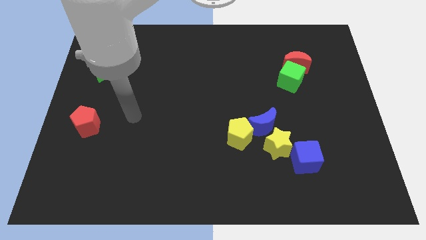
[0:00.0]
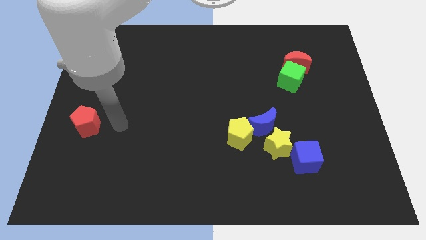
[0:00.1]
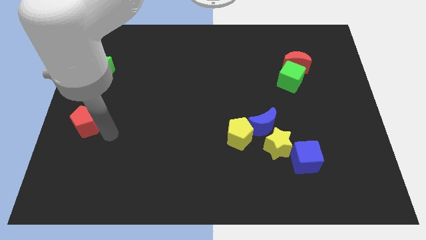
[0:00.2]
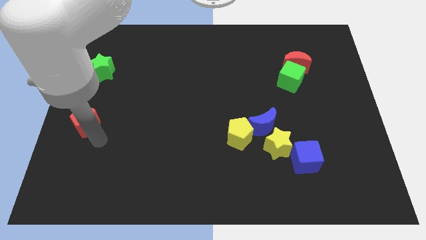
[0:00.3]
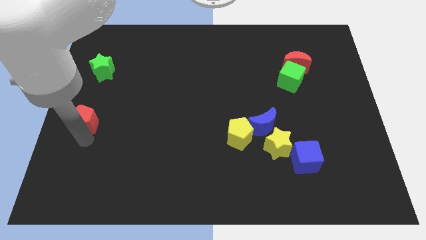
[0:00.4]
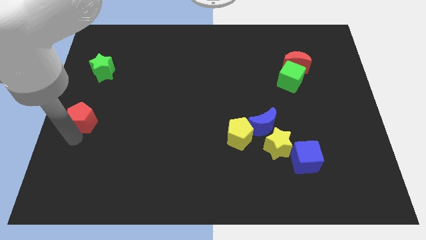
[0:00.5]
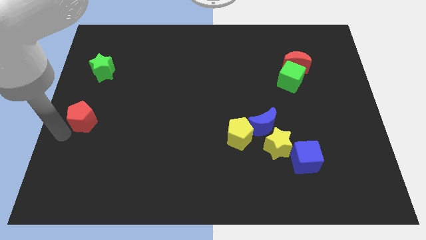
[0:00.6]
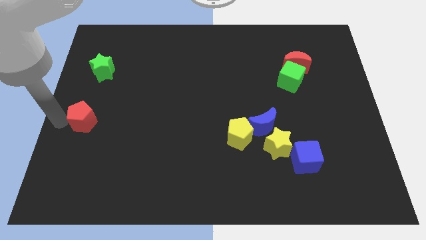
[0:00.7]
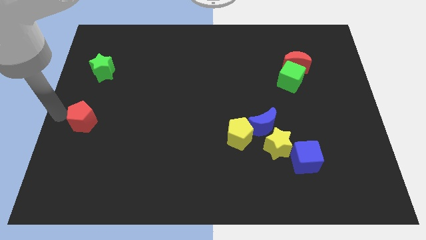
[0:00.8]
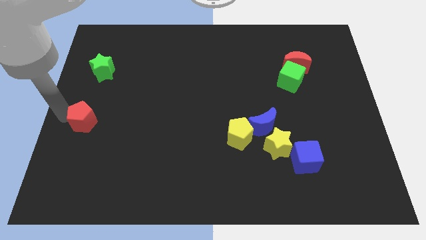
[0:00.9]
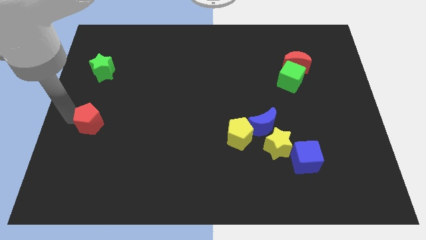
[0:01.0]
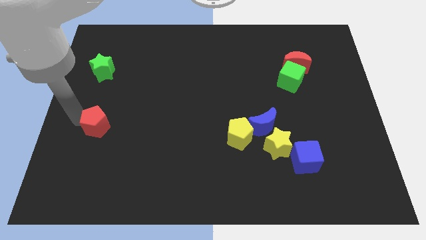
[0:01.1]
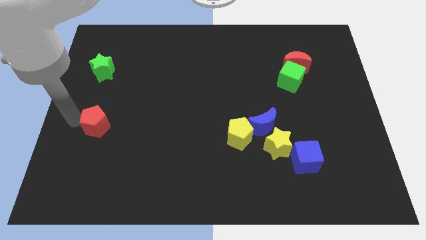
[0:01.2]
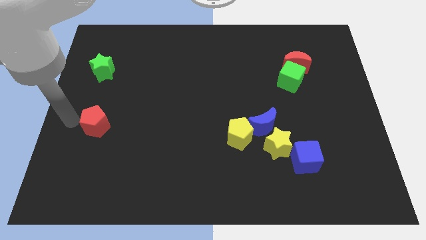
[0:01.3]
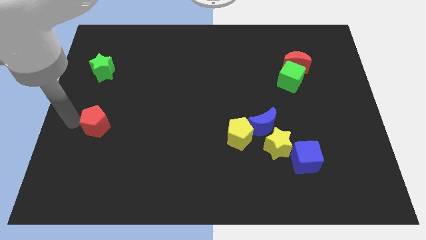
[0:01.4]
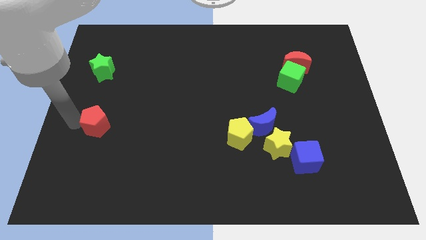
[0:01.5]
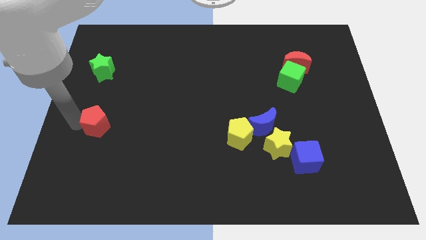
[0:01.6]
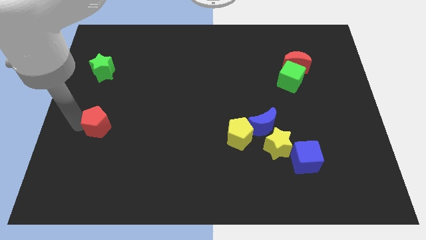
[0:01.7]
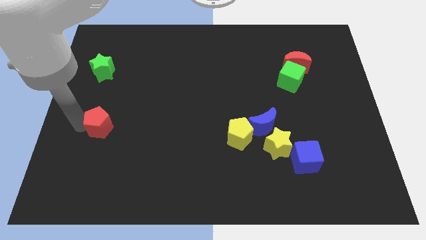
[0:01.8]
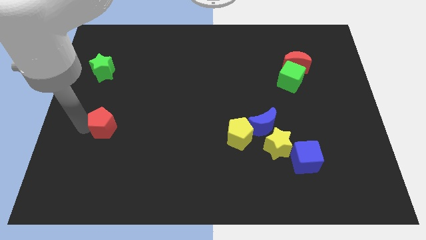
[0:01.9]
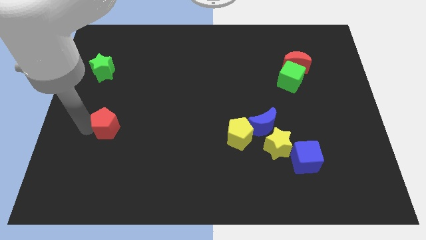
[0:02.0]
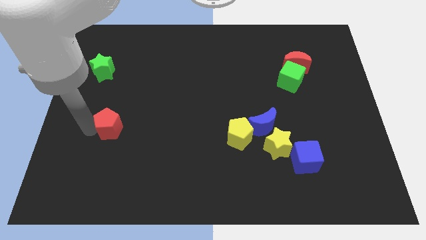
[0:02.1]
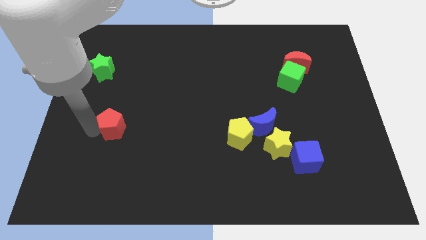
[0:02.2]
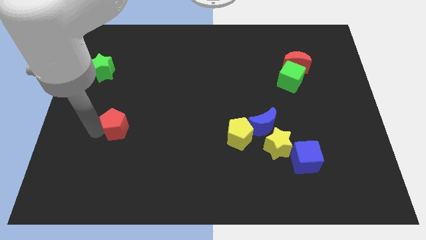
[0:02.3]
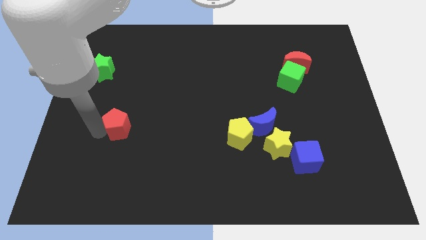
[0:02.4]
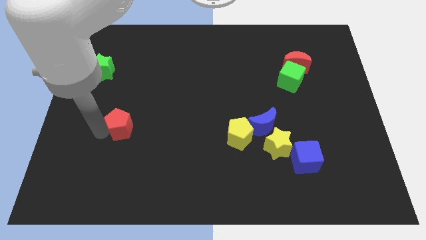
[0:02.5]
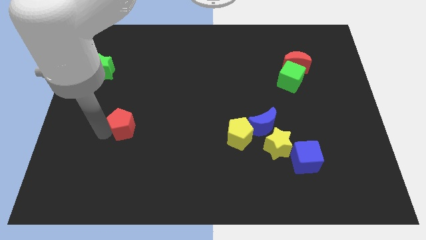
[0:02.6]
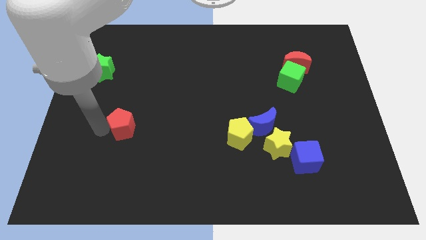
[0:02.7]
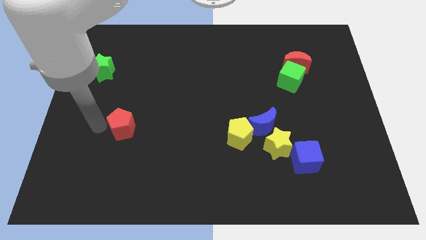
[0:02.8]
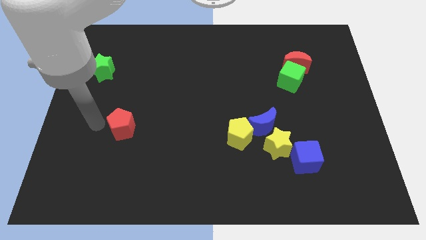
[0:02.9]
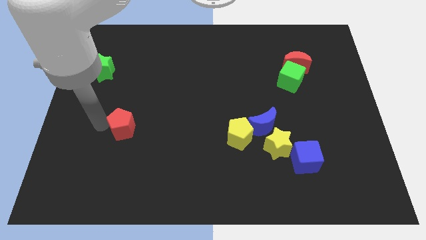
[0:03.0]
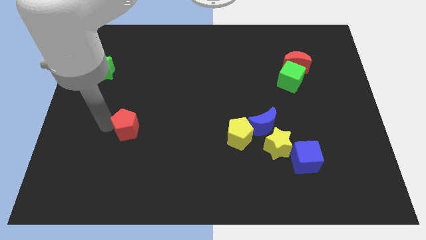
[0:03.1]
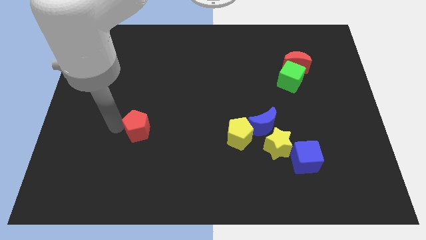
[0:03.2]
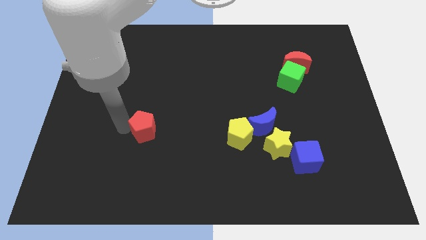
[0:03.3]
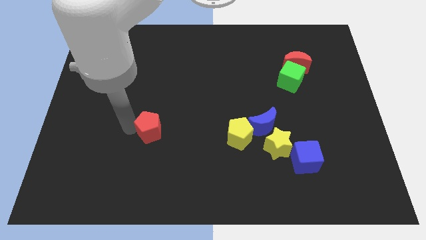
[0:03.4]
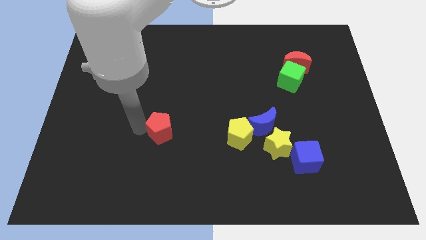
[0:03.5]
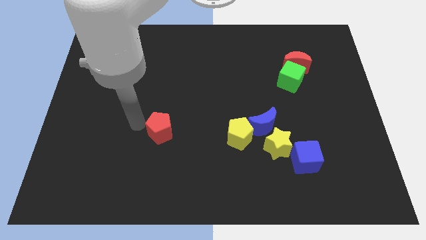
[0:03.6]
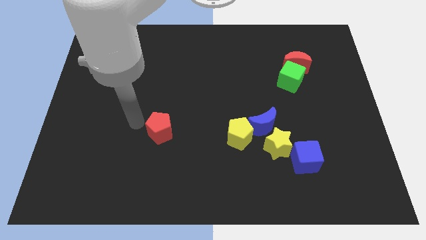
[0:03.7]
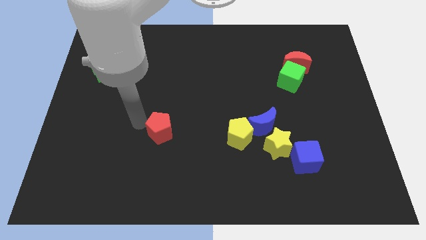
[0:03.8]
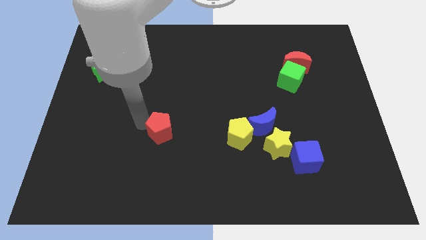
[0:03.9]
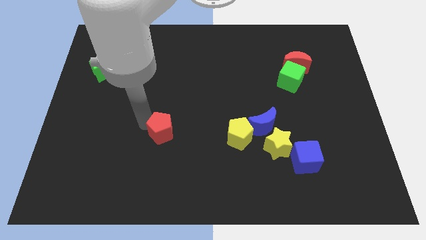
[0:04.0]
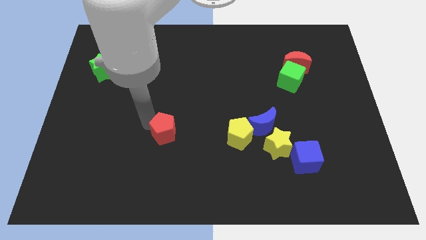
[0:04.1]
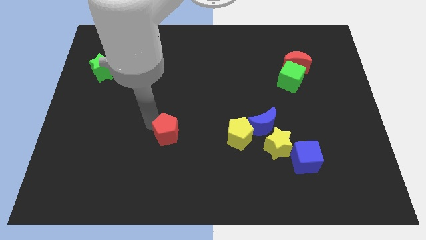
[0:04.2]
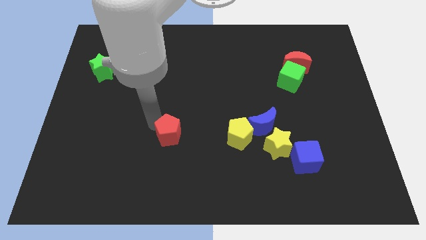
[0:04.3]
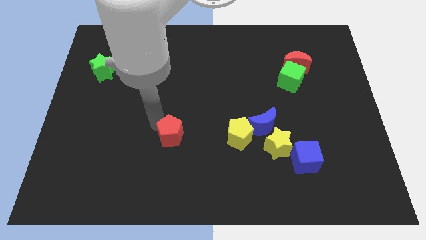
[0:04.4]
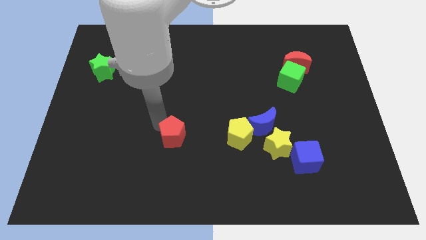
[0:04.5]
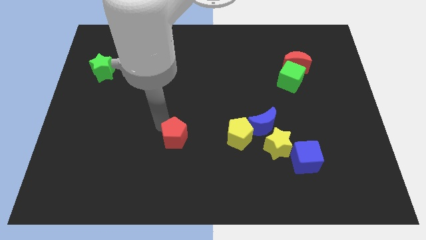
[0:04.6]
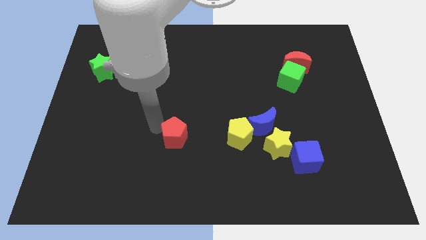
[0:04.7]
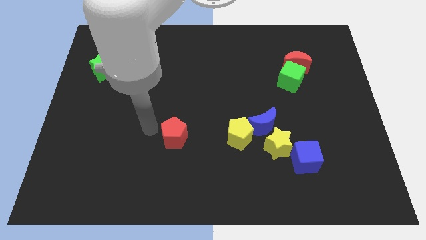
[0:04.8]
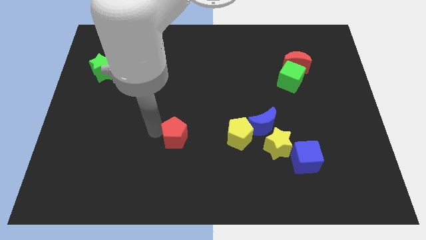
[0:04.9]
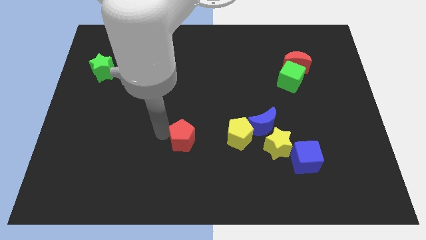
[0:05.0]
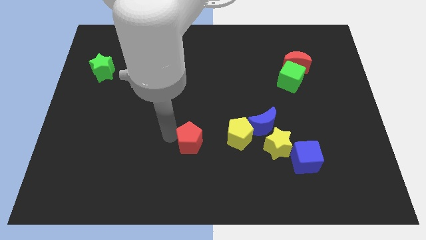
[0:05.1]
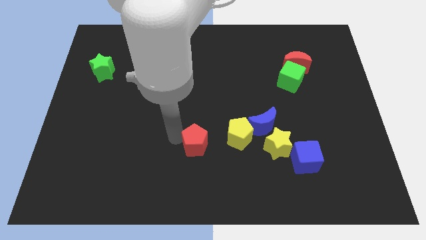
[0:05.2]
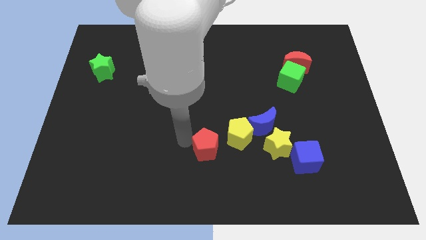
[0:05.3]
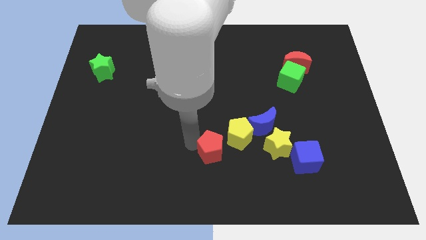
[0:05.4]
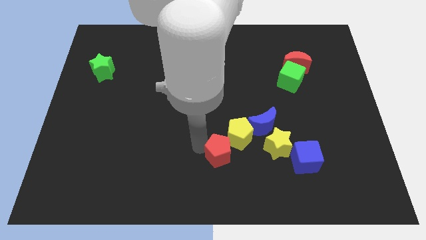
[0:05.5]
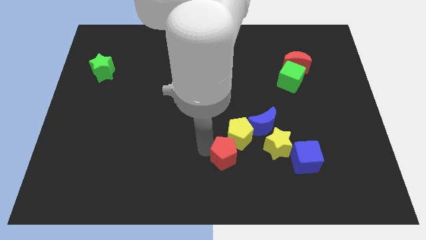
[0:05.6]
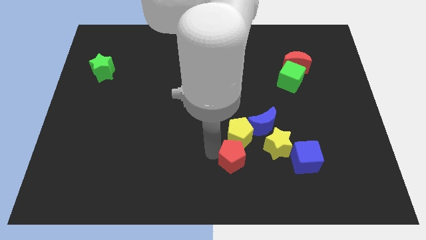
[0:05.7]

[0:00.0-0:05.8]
slide the red pentagon to the left of the blue cube

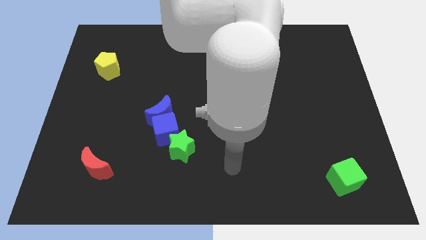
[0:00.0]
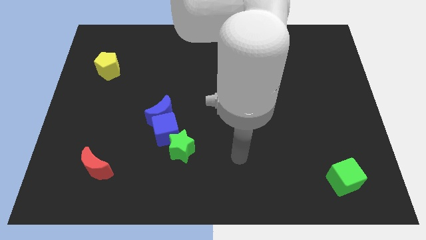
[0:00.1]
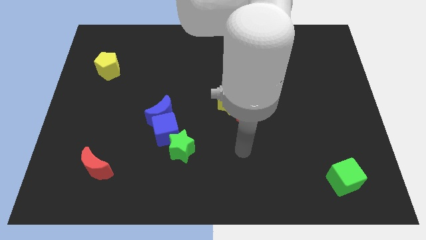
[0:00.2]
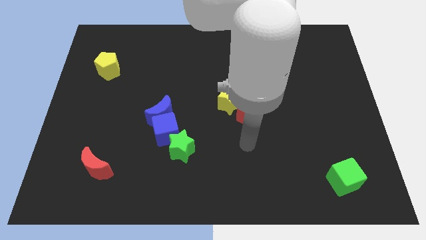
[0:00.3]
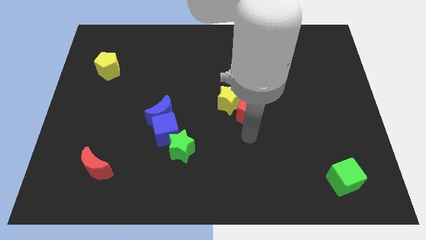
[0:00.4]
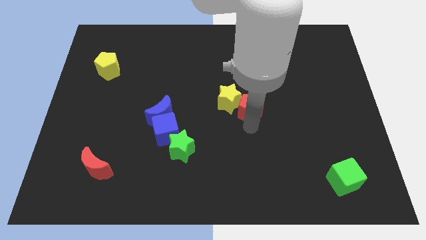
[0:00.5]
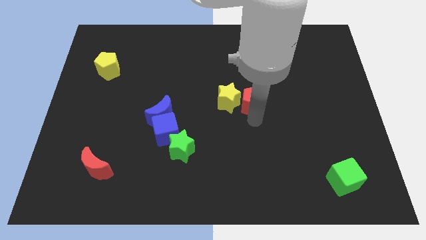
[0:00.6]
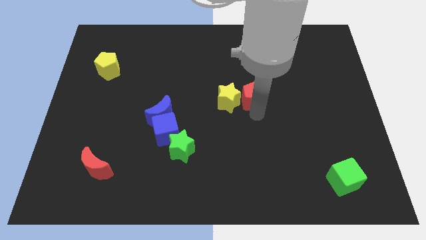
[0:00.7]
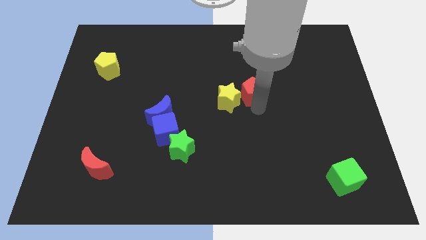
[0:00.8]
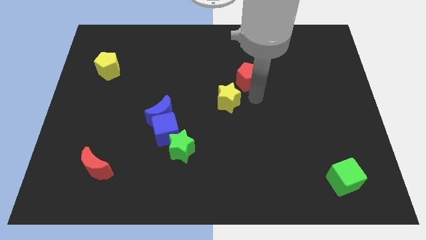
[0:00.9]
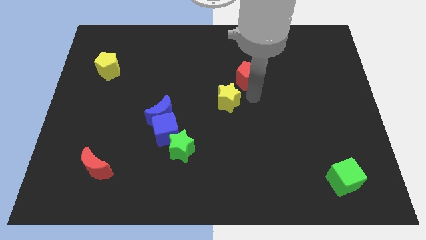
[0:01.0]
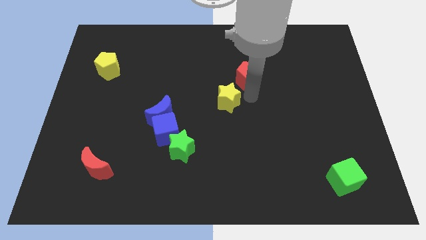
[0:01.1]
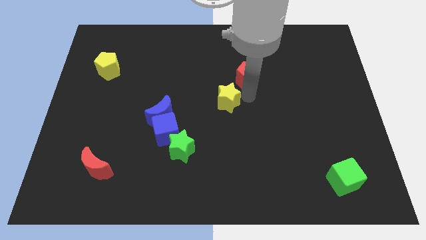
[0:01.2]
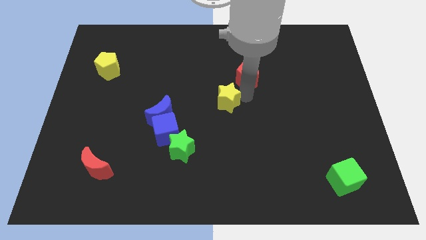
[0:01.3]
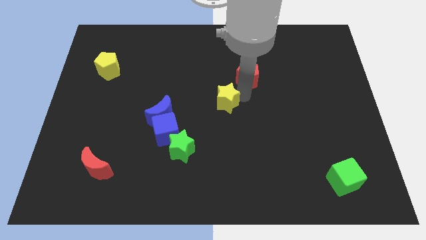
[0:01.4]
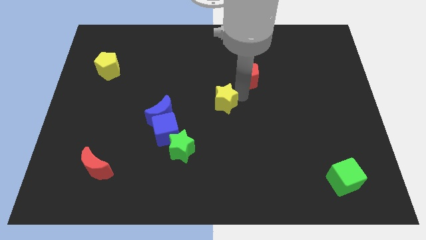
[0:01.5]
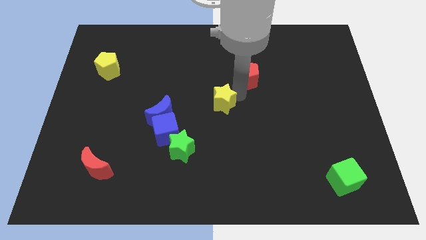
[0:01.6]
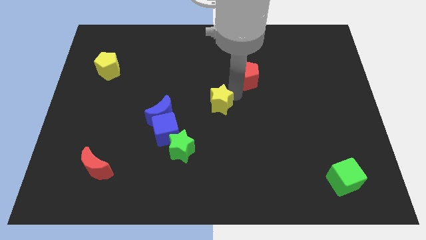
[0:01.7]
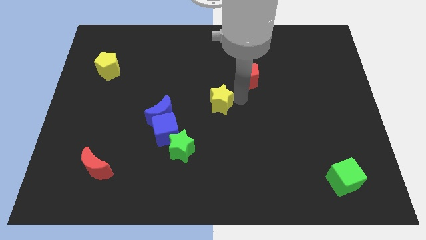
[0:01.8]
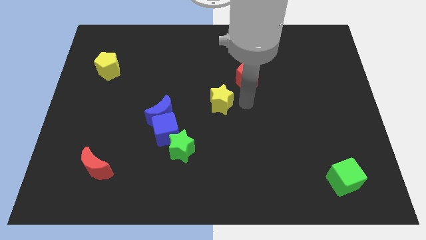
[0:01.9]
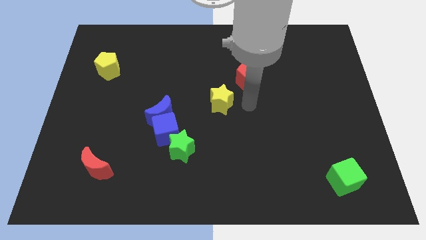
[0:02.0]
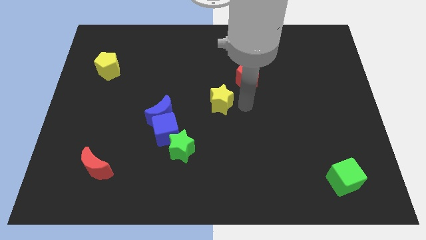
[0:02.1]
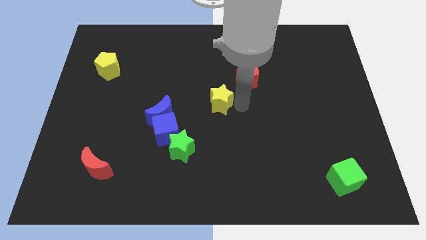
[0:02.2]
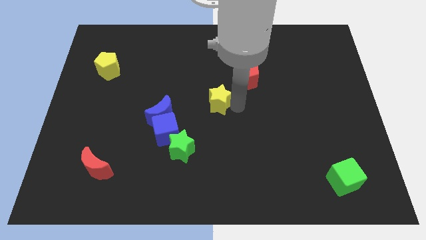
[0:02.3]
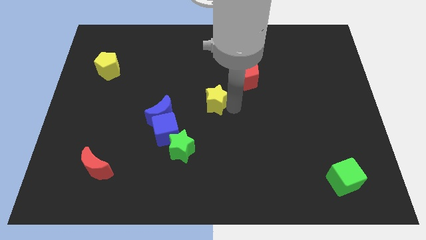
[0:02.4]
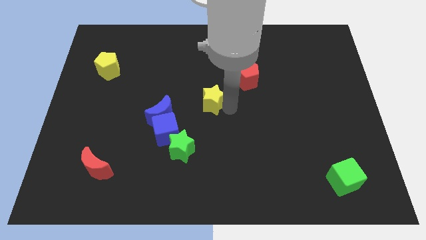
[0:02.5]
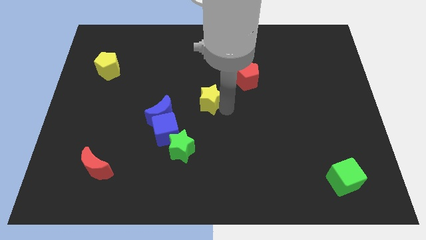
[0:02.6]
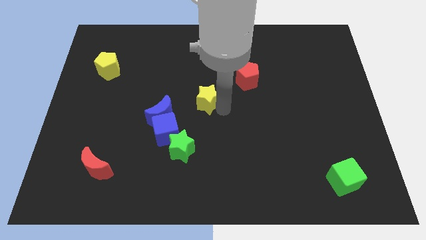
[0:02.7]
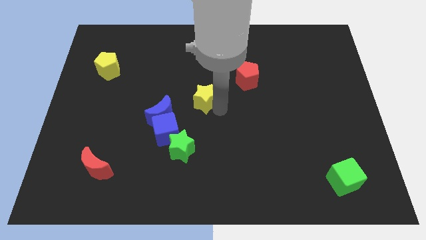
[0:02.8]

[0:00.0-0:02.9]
put the yellow star diagonally up and to the right of the blue moon
